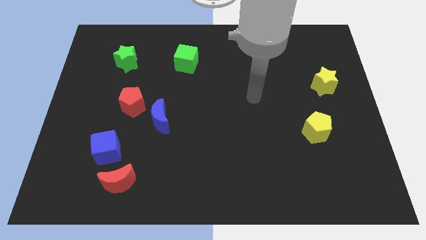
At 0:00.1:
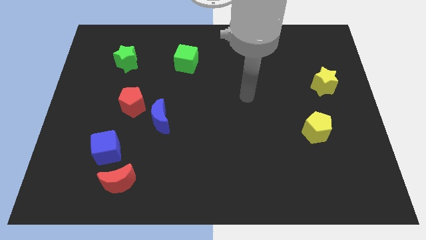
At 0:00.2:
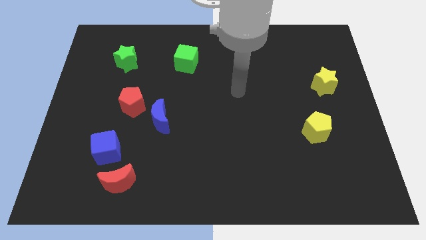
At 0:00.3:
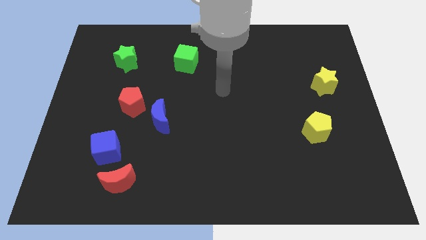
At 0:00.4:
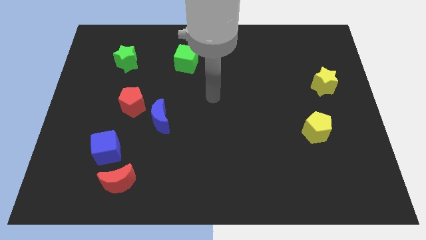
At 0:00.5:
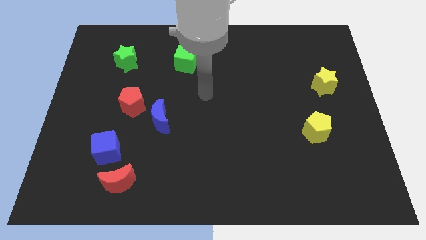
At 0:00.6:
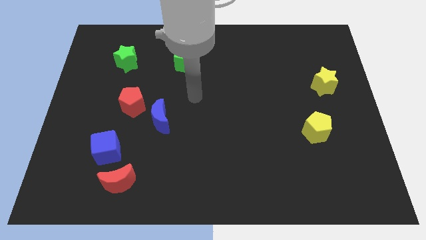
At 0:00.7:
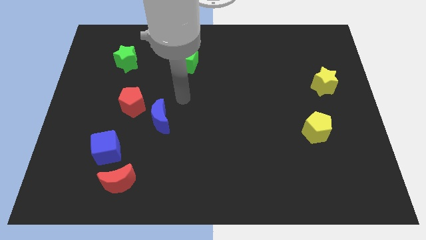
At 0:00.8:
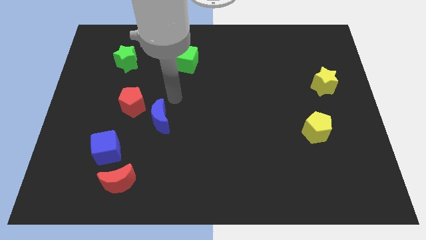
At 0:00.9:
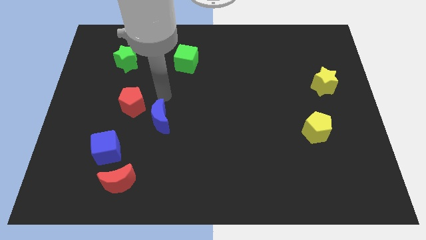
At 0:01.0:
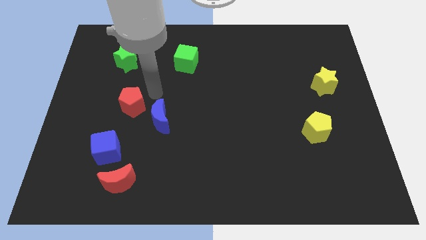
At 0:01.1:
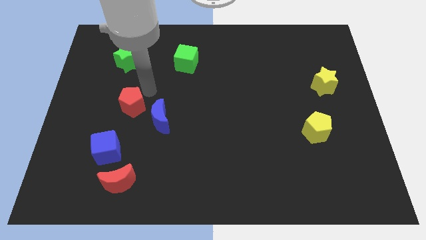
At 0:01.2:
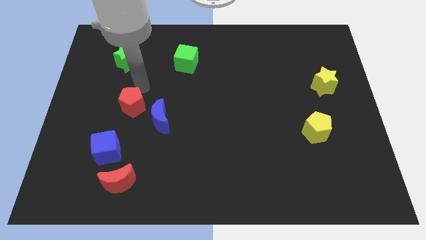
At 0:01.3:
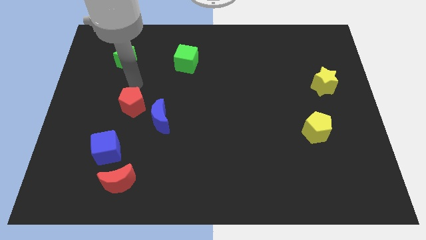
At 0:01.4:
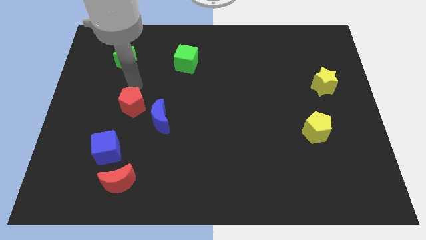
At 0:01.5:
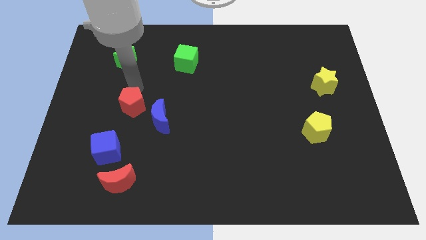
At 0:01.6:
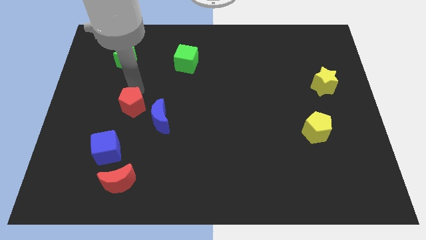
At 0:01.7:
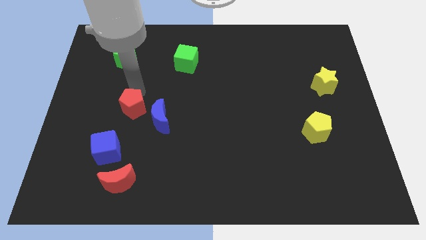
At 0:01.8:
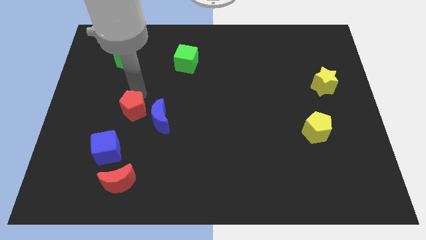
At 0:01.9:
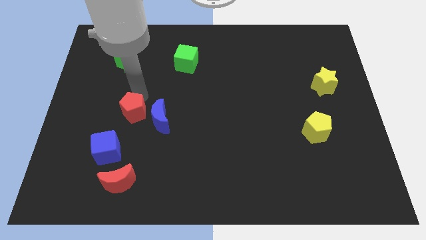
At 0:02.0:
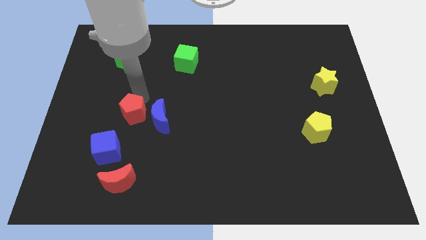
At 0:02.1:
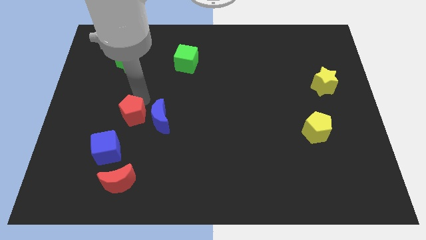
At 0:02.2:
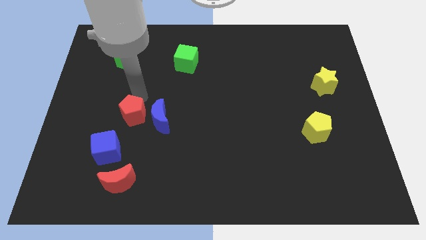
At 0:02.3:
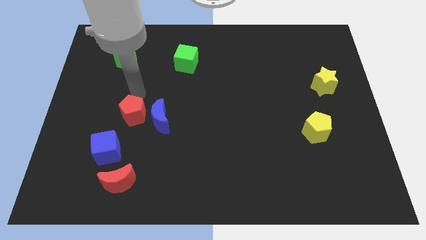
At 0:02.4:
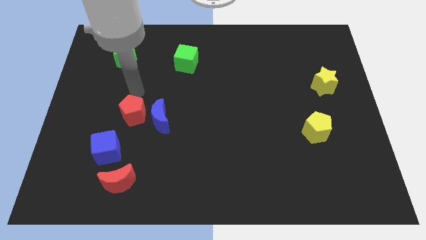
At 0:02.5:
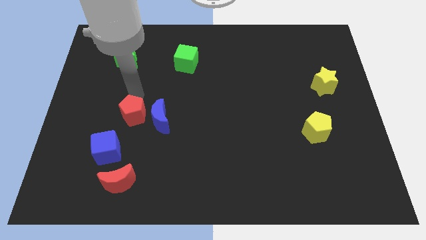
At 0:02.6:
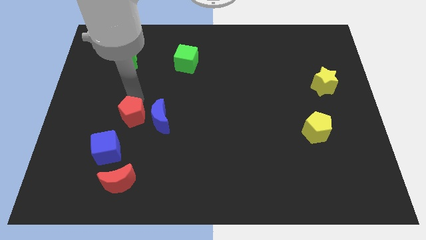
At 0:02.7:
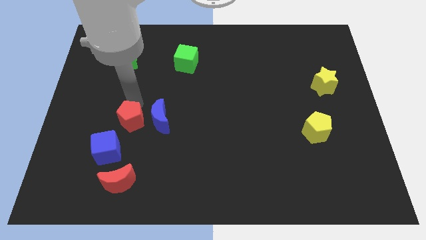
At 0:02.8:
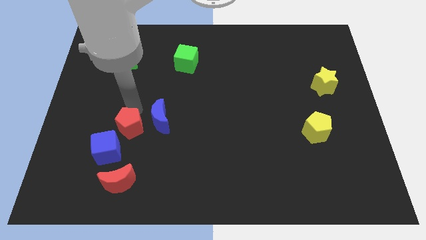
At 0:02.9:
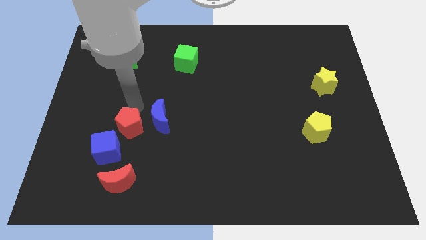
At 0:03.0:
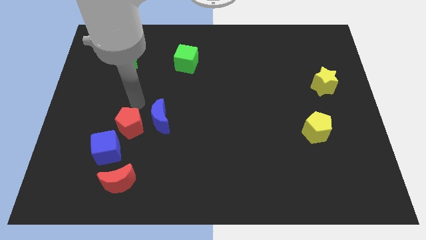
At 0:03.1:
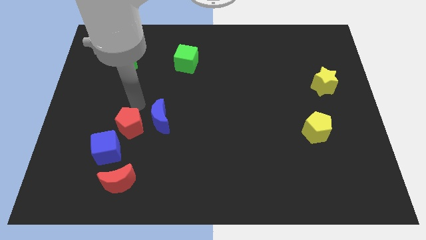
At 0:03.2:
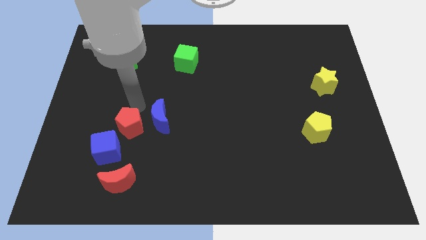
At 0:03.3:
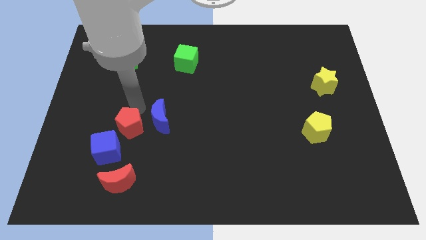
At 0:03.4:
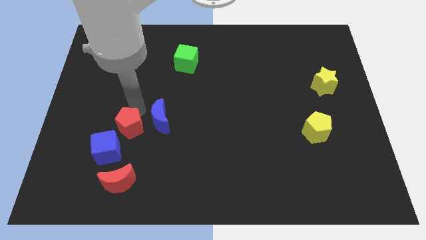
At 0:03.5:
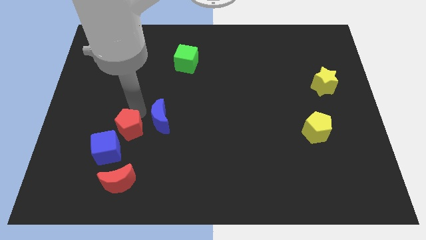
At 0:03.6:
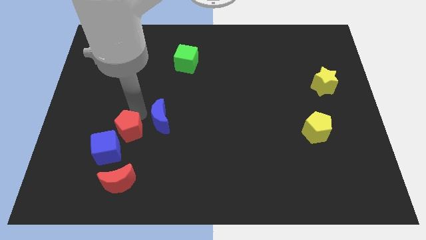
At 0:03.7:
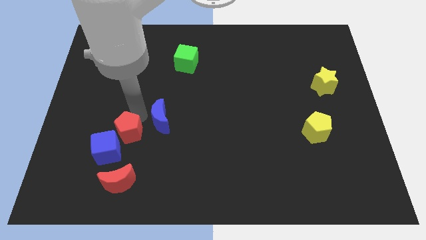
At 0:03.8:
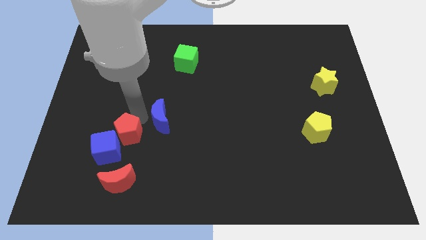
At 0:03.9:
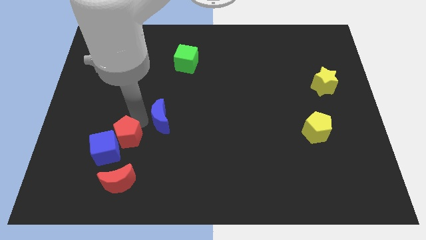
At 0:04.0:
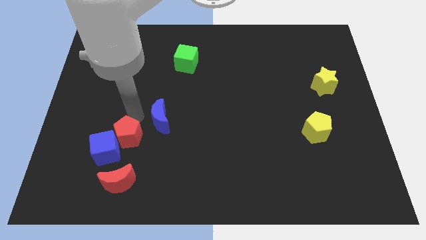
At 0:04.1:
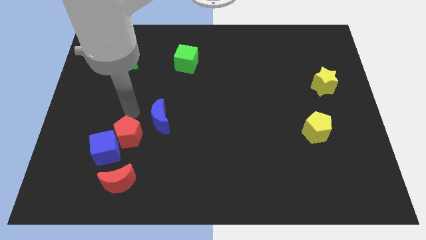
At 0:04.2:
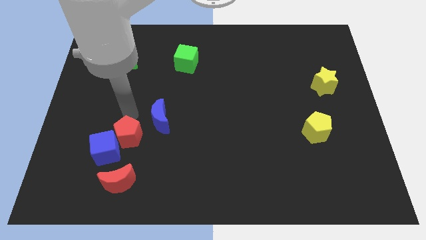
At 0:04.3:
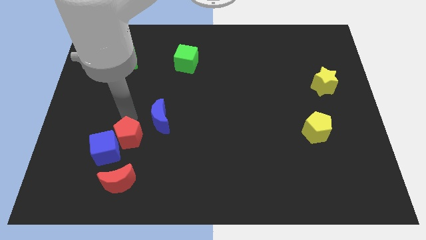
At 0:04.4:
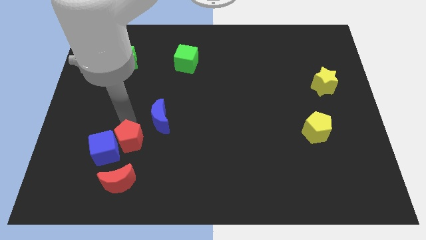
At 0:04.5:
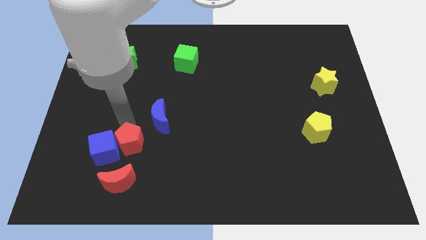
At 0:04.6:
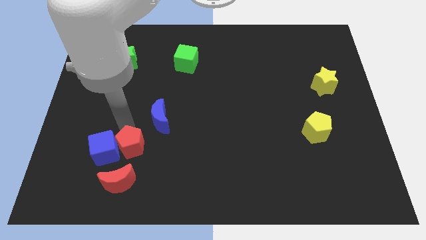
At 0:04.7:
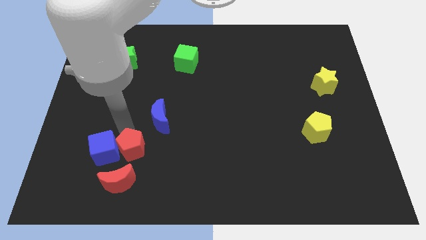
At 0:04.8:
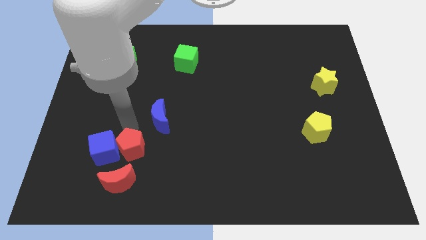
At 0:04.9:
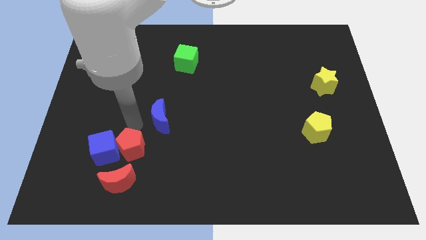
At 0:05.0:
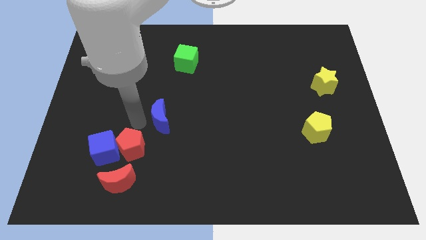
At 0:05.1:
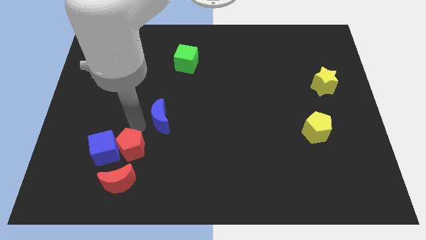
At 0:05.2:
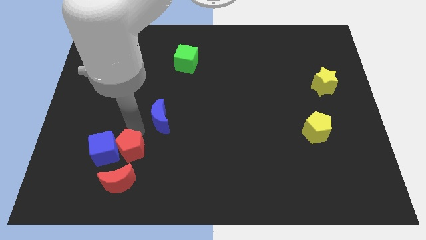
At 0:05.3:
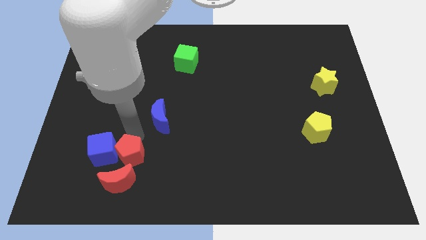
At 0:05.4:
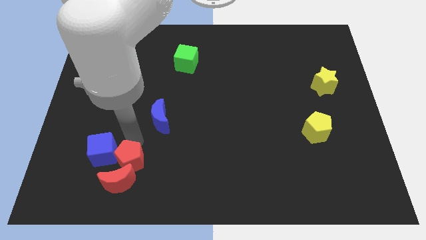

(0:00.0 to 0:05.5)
slide the red pentagon next to the red moon

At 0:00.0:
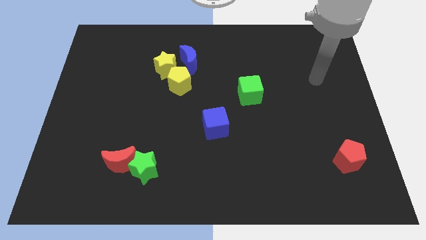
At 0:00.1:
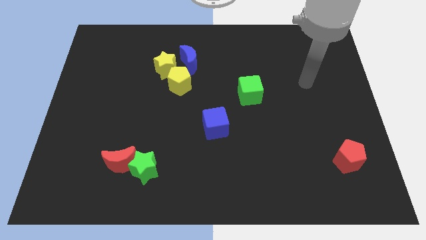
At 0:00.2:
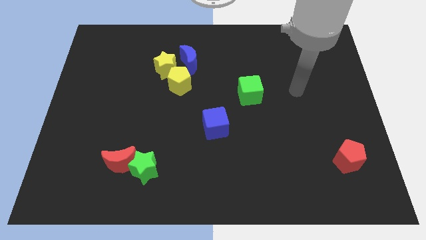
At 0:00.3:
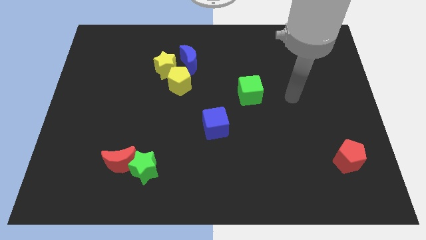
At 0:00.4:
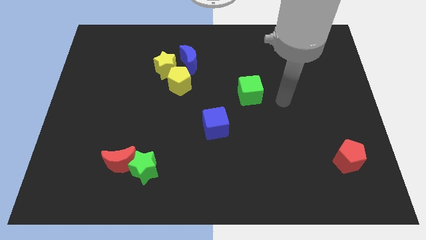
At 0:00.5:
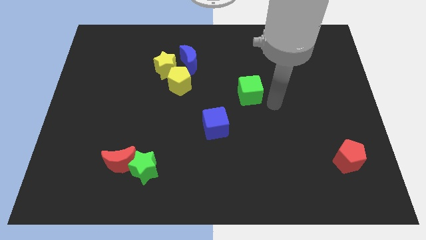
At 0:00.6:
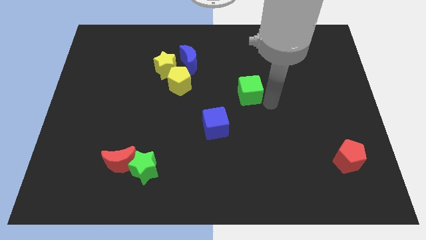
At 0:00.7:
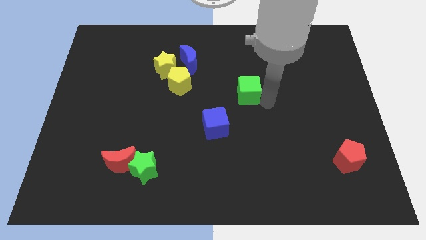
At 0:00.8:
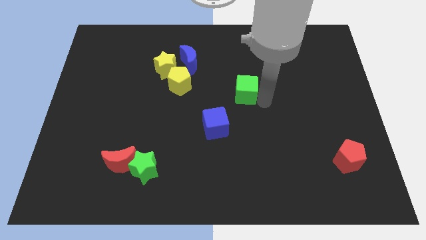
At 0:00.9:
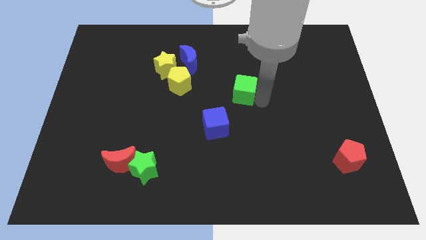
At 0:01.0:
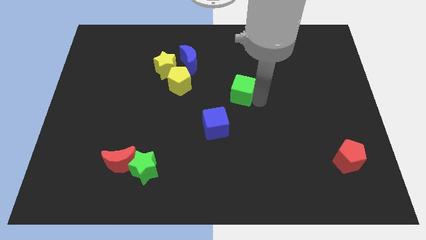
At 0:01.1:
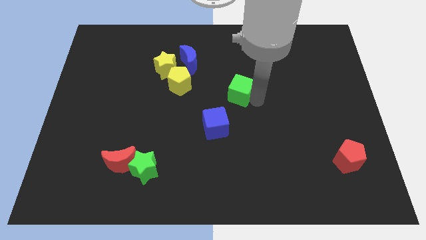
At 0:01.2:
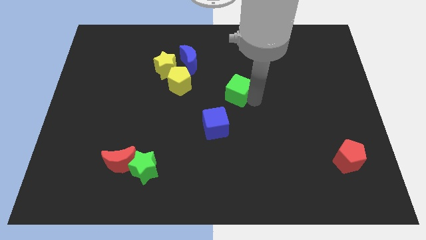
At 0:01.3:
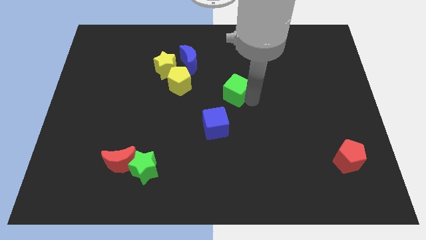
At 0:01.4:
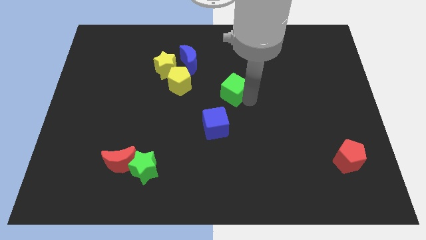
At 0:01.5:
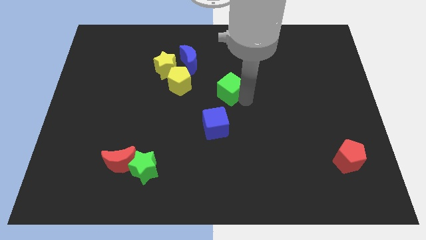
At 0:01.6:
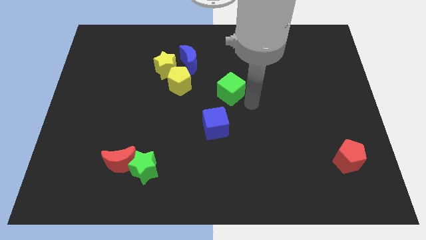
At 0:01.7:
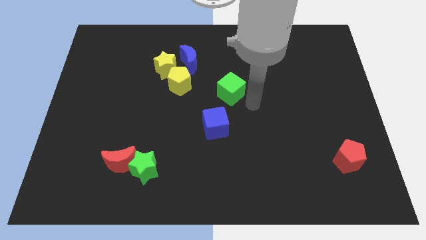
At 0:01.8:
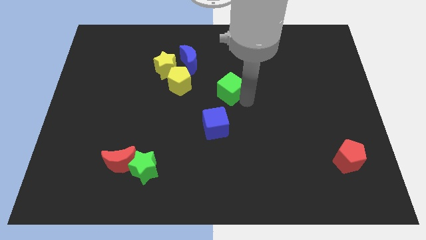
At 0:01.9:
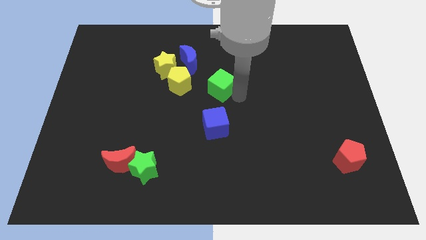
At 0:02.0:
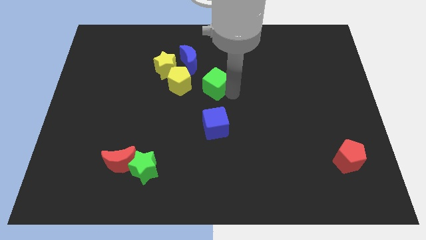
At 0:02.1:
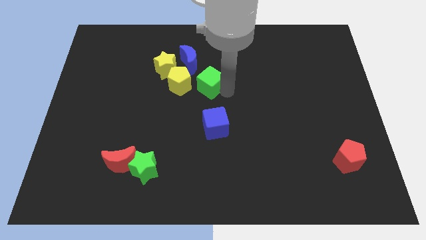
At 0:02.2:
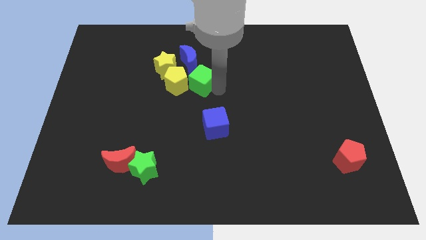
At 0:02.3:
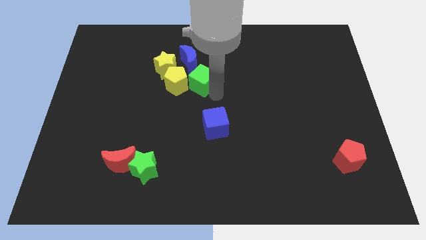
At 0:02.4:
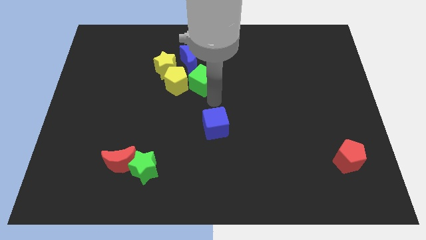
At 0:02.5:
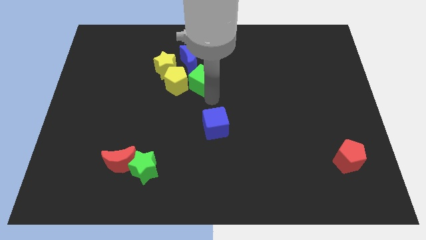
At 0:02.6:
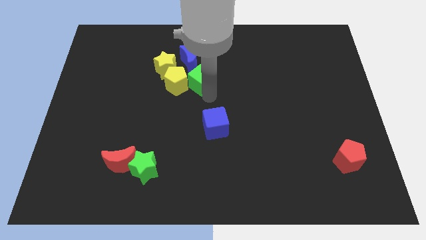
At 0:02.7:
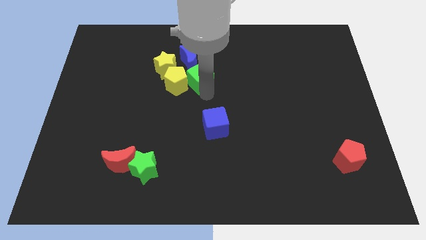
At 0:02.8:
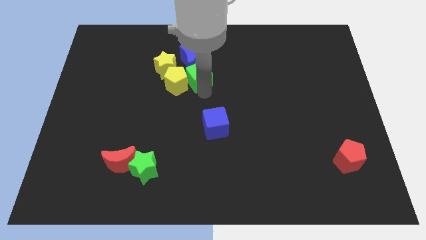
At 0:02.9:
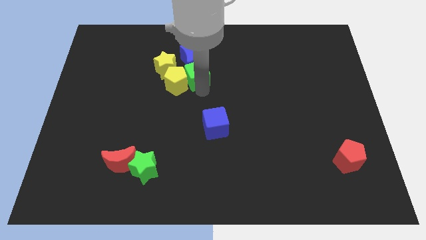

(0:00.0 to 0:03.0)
move the green cube to the blue moon
